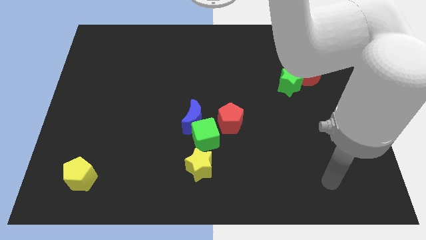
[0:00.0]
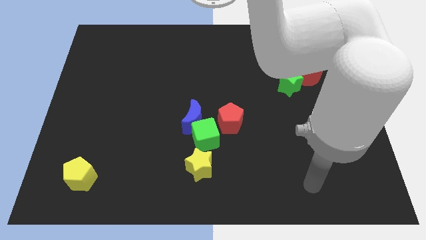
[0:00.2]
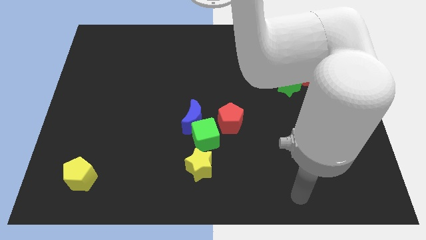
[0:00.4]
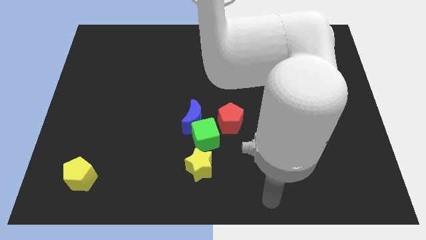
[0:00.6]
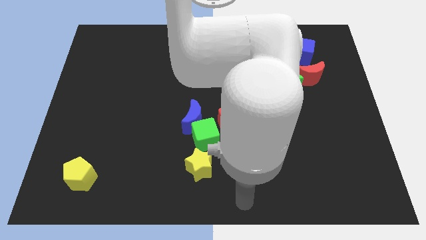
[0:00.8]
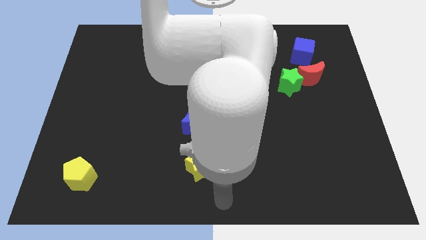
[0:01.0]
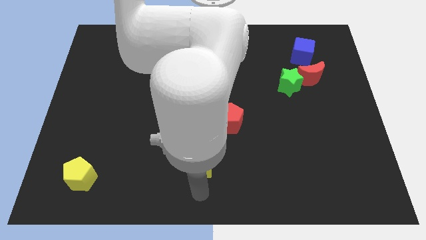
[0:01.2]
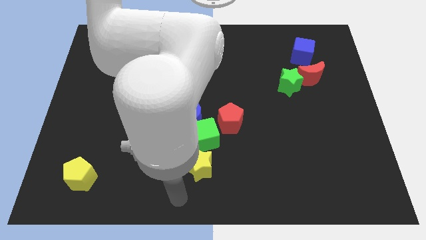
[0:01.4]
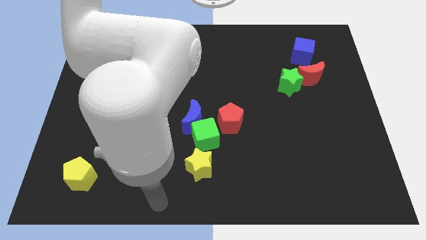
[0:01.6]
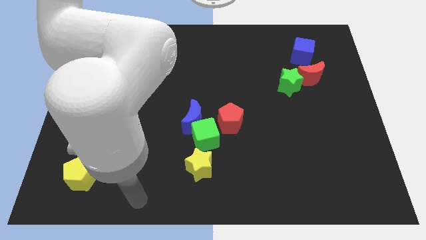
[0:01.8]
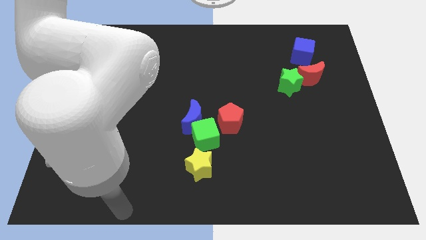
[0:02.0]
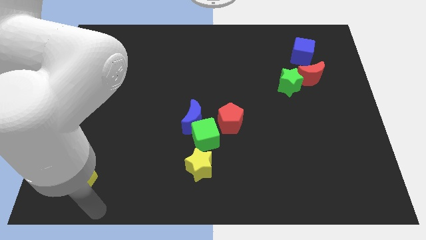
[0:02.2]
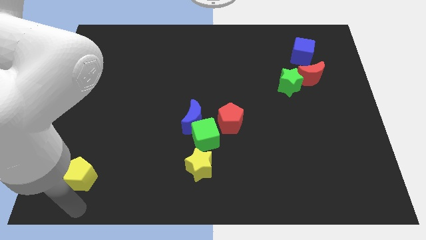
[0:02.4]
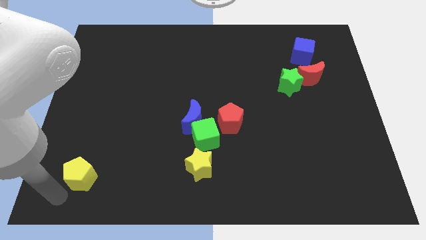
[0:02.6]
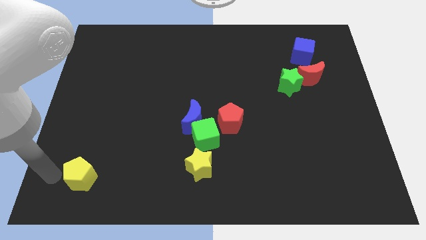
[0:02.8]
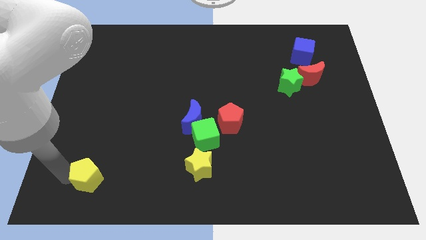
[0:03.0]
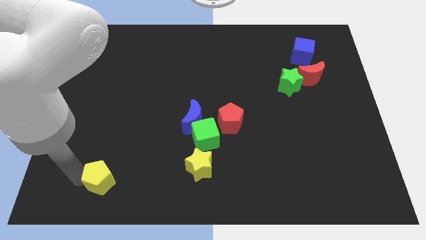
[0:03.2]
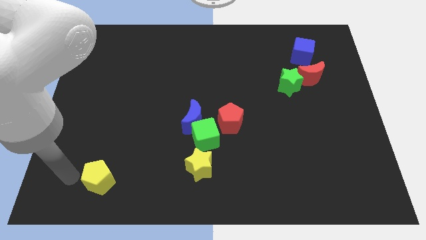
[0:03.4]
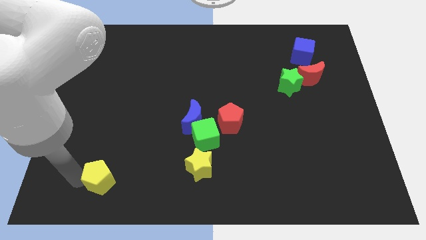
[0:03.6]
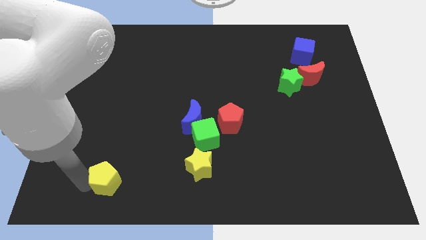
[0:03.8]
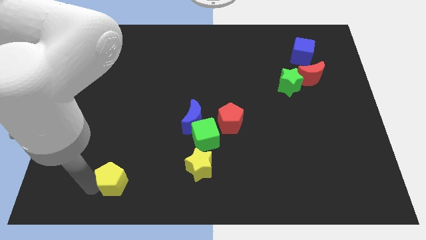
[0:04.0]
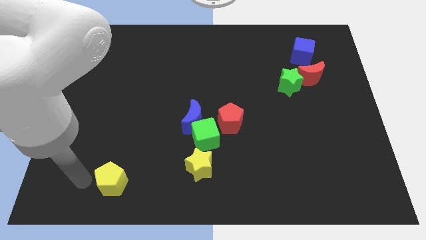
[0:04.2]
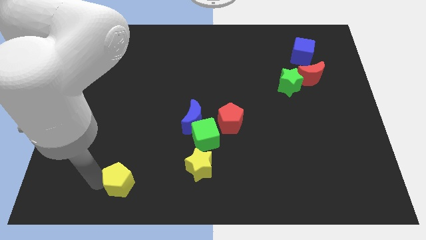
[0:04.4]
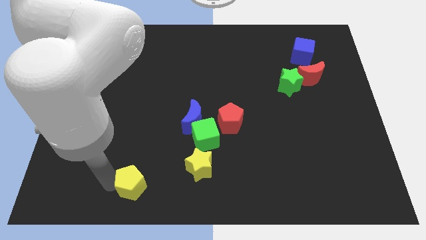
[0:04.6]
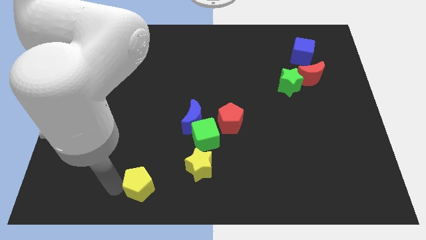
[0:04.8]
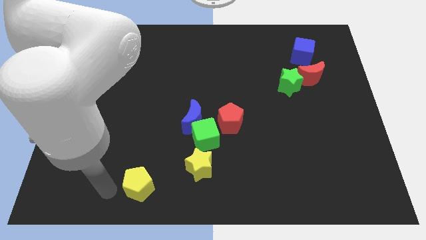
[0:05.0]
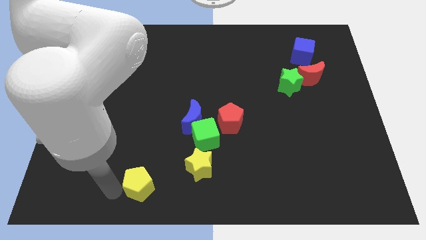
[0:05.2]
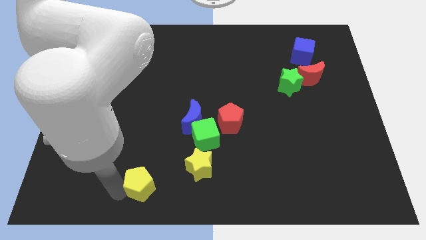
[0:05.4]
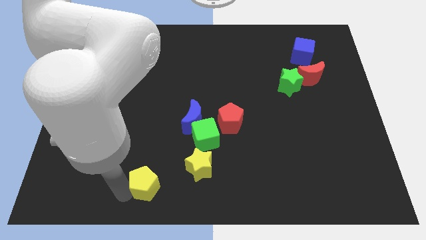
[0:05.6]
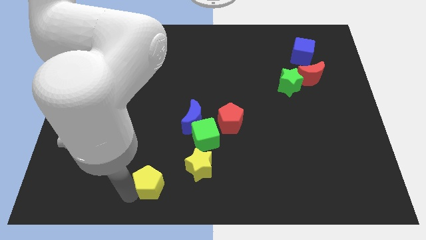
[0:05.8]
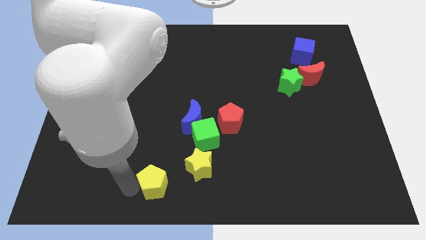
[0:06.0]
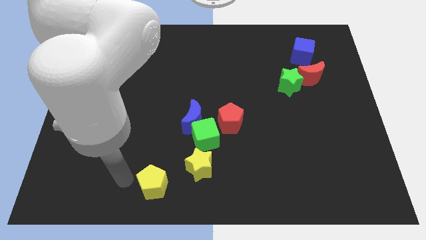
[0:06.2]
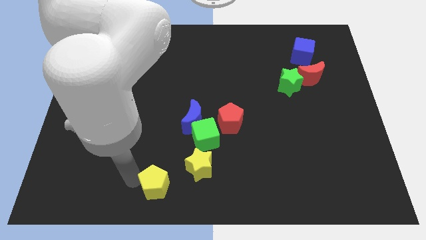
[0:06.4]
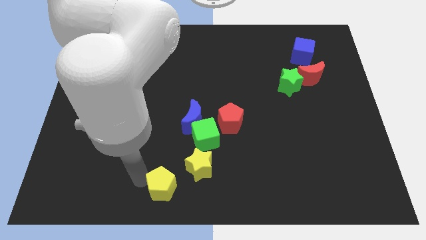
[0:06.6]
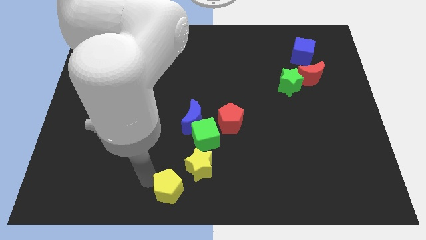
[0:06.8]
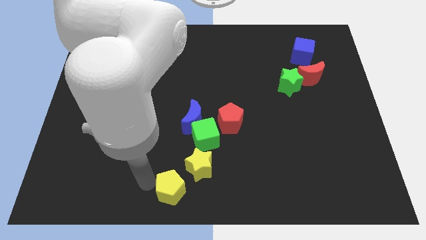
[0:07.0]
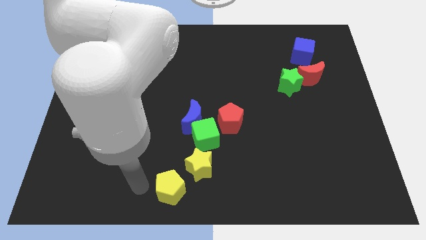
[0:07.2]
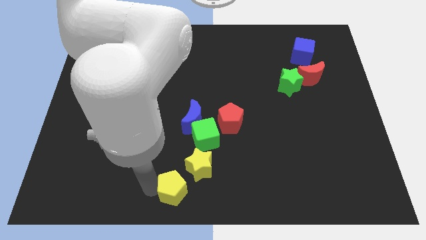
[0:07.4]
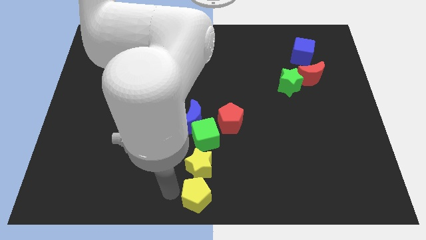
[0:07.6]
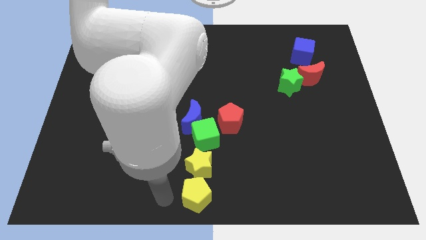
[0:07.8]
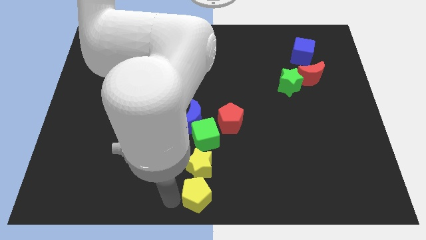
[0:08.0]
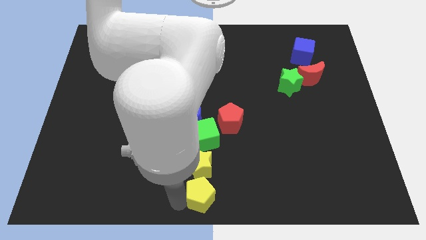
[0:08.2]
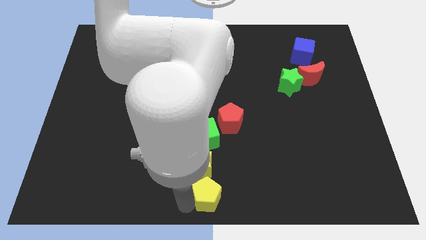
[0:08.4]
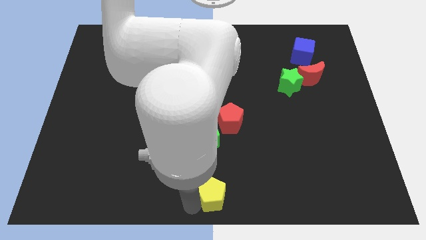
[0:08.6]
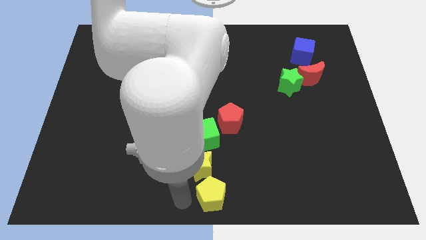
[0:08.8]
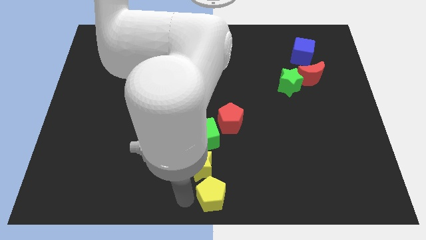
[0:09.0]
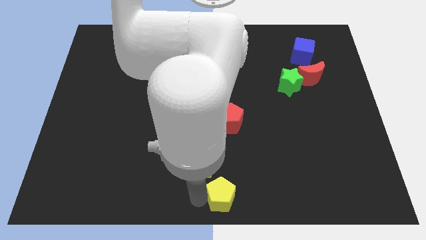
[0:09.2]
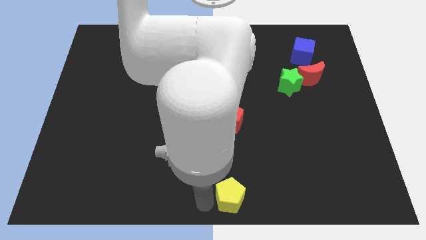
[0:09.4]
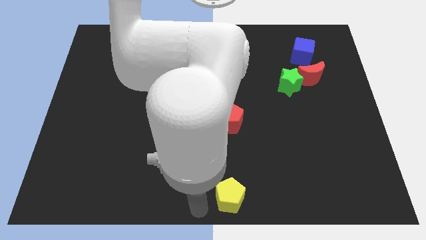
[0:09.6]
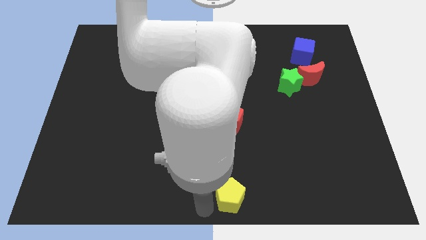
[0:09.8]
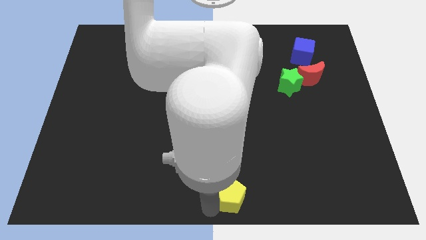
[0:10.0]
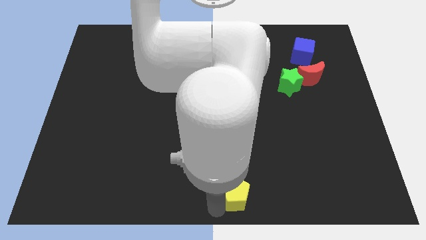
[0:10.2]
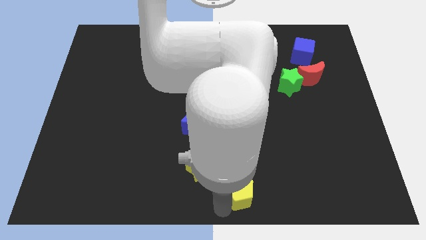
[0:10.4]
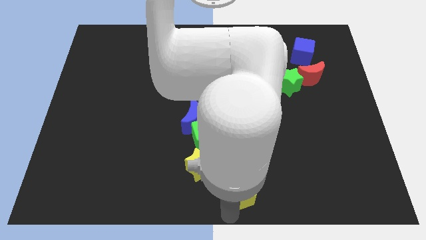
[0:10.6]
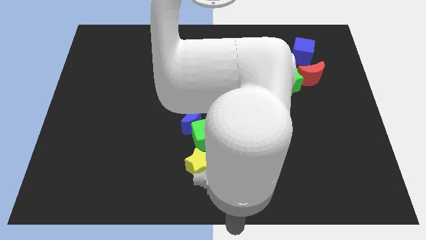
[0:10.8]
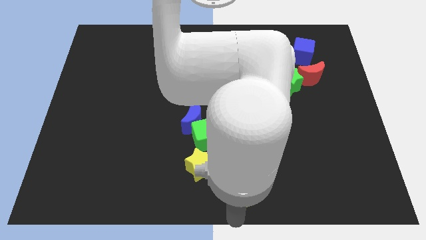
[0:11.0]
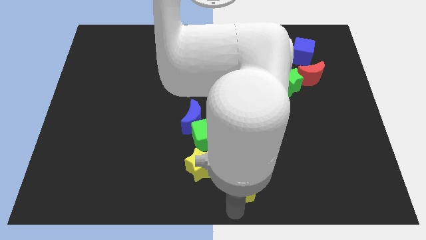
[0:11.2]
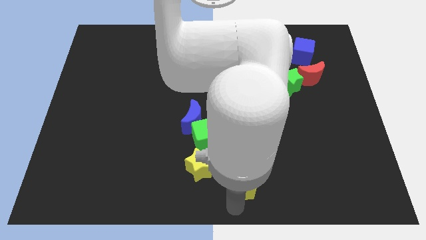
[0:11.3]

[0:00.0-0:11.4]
move the yellow pentagon to the right of the yellow star

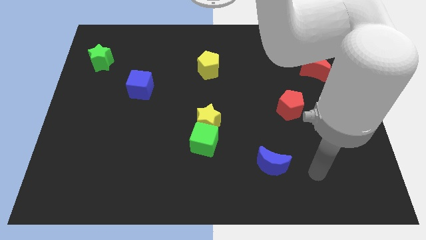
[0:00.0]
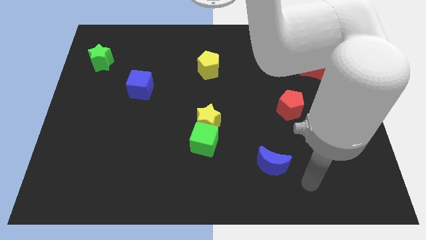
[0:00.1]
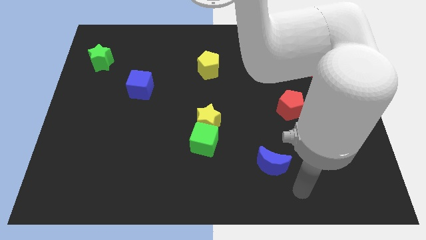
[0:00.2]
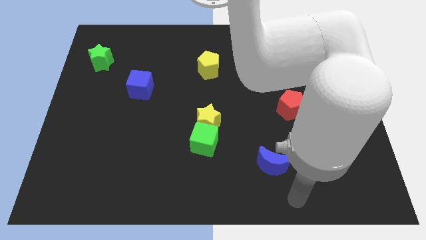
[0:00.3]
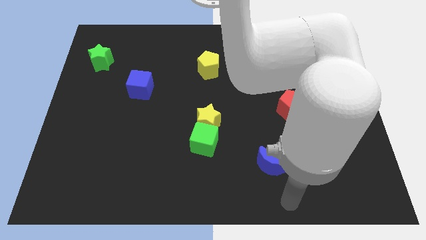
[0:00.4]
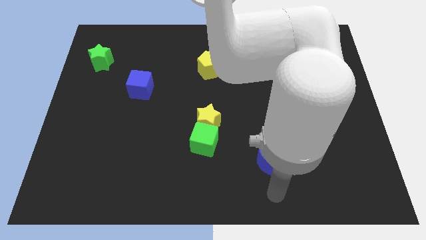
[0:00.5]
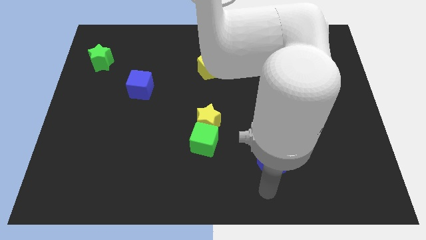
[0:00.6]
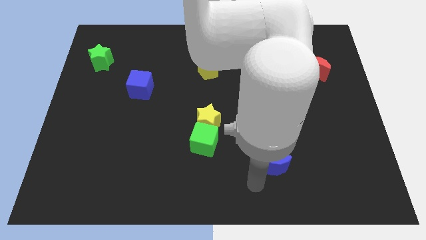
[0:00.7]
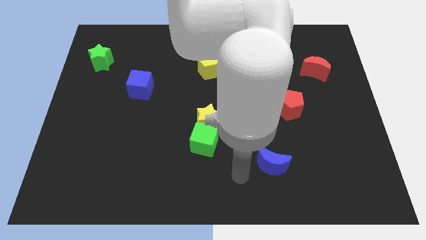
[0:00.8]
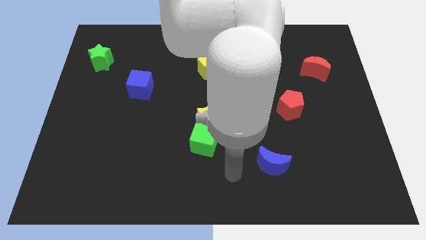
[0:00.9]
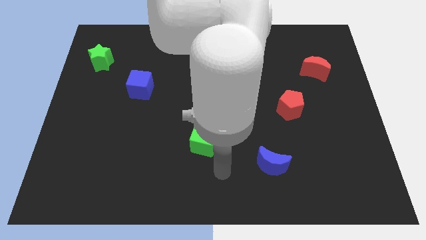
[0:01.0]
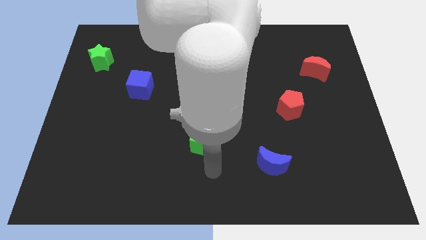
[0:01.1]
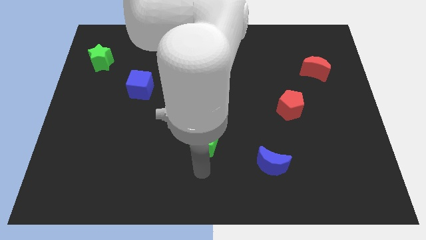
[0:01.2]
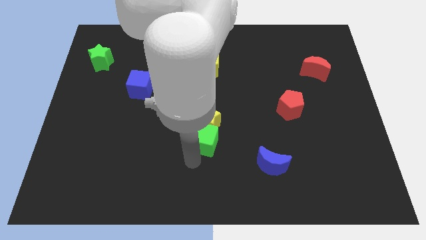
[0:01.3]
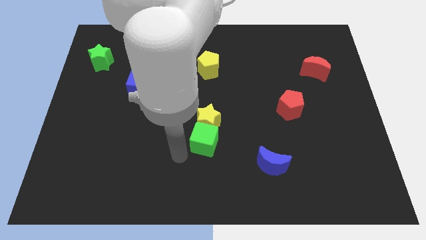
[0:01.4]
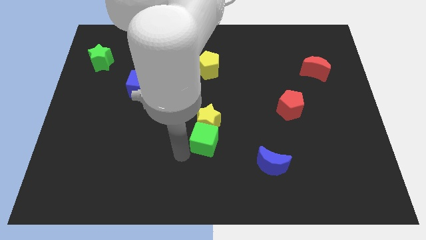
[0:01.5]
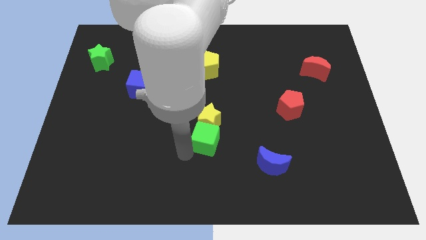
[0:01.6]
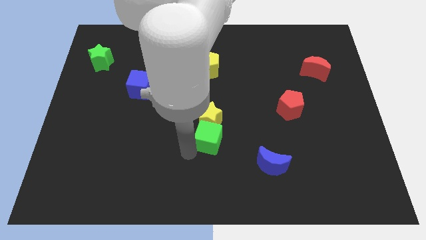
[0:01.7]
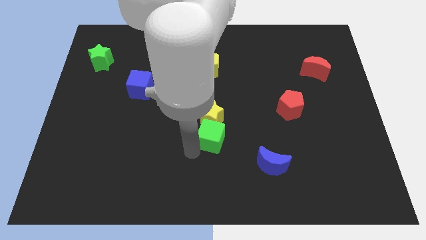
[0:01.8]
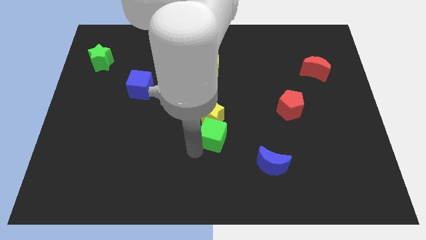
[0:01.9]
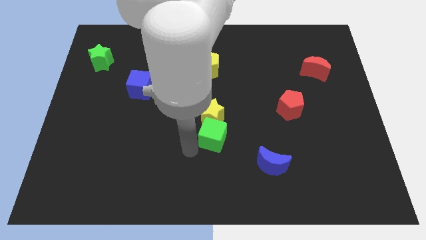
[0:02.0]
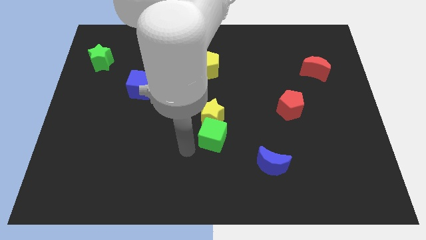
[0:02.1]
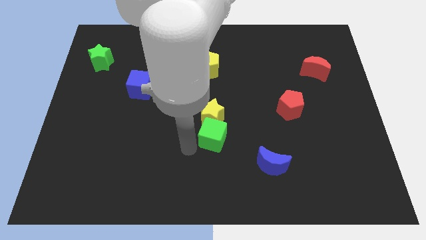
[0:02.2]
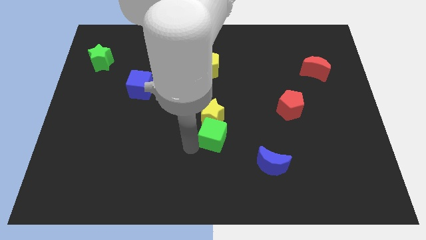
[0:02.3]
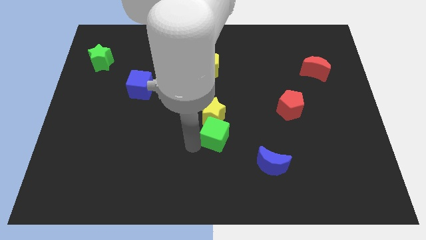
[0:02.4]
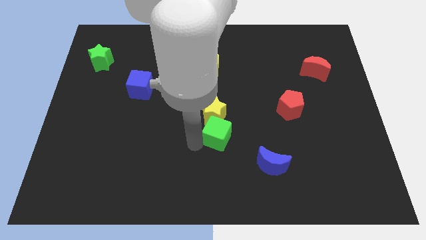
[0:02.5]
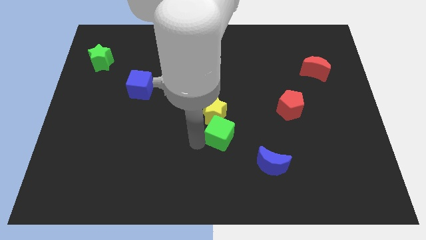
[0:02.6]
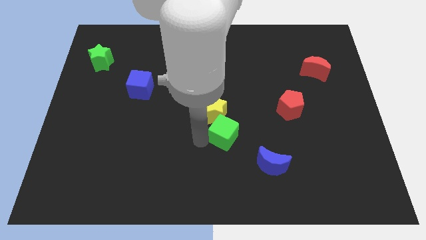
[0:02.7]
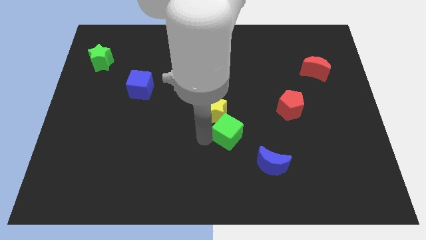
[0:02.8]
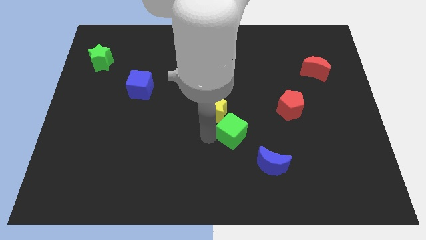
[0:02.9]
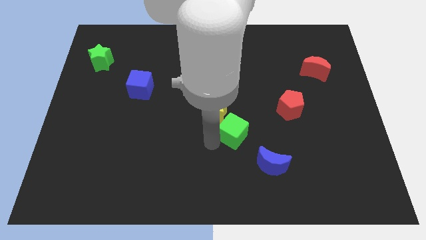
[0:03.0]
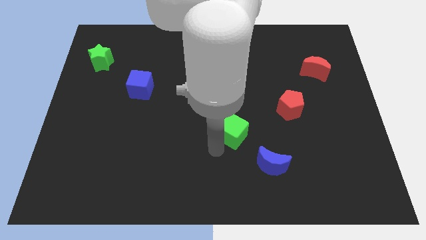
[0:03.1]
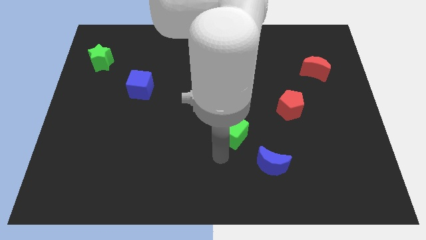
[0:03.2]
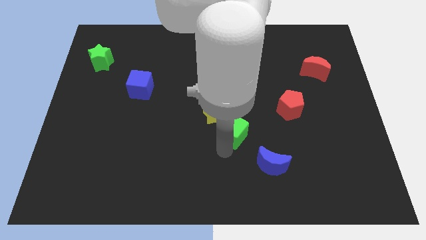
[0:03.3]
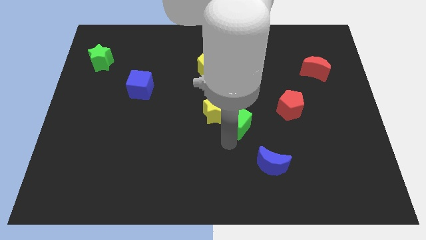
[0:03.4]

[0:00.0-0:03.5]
move the green cube to the left of the red pentagon
